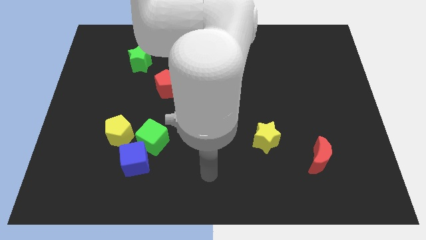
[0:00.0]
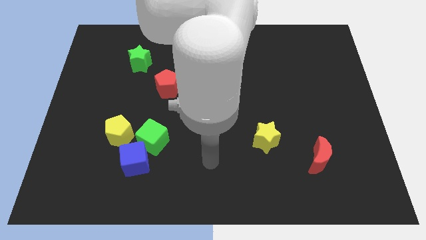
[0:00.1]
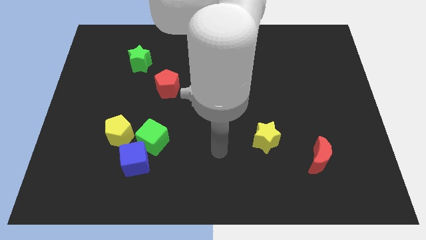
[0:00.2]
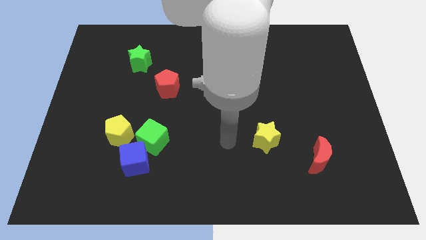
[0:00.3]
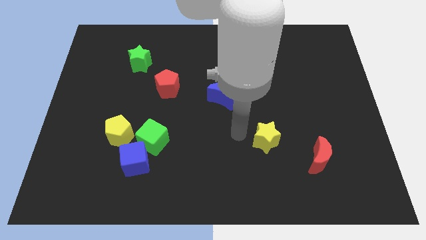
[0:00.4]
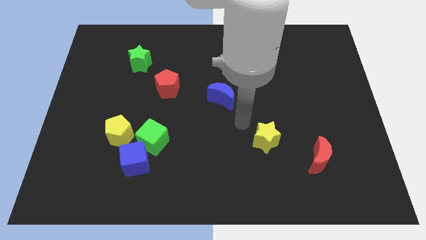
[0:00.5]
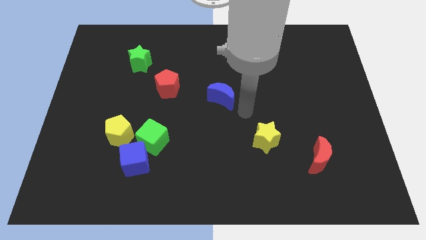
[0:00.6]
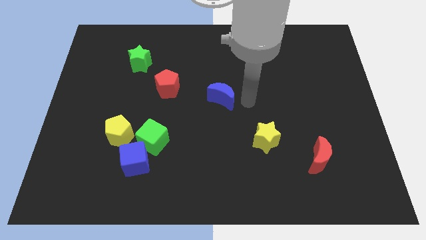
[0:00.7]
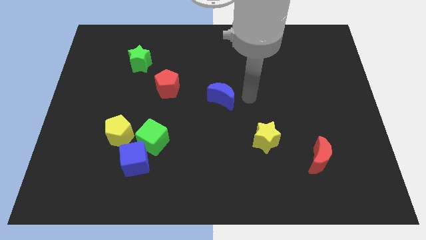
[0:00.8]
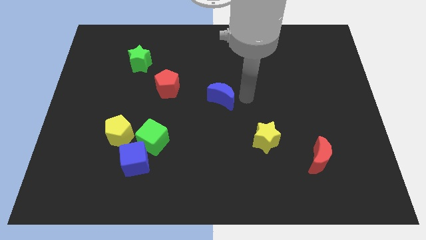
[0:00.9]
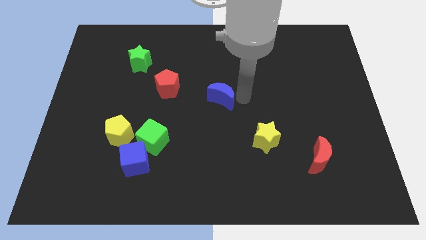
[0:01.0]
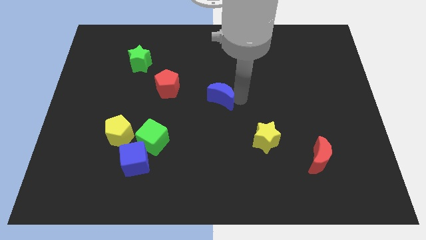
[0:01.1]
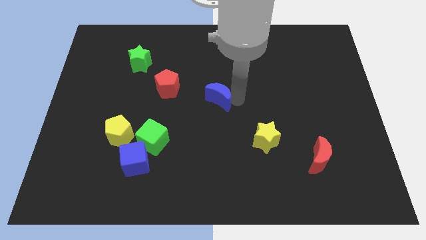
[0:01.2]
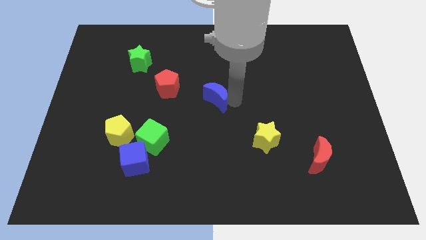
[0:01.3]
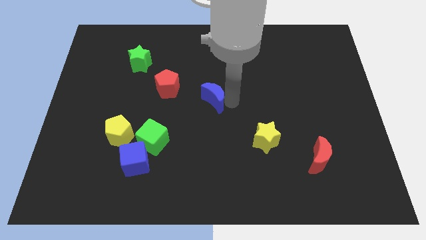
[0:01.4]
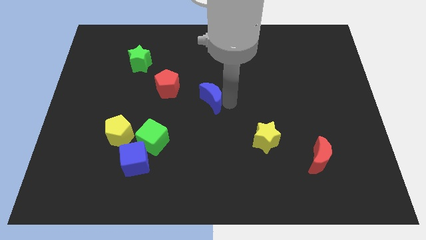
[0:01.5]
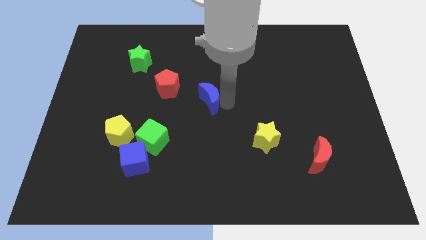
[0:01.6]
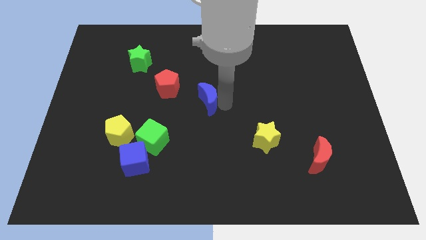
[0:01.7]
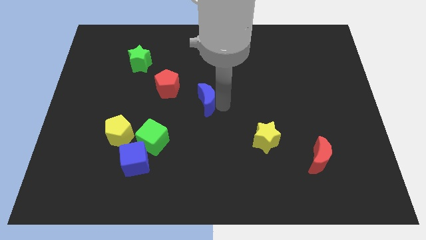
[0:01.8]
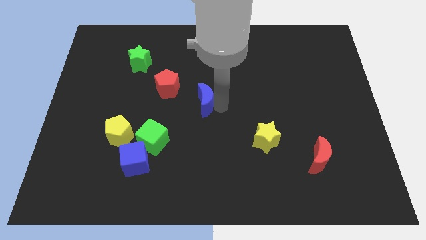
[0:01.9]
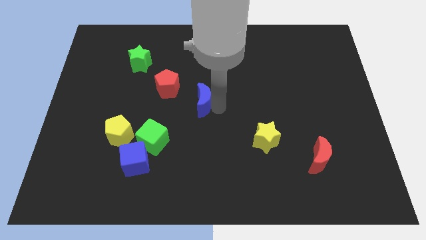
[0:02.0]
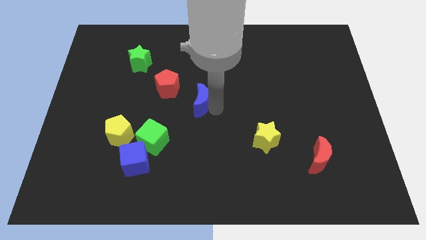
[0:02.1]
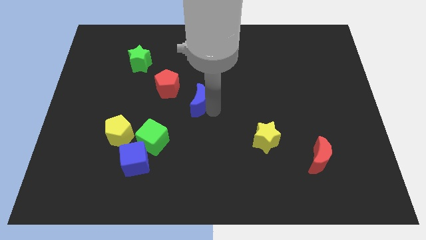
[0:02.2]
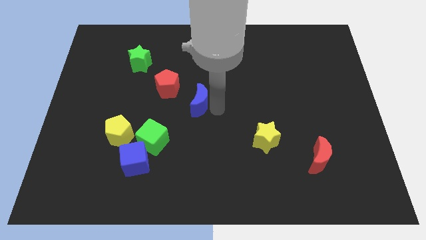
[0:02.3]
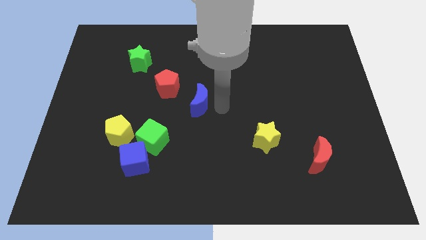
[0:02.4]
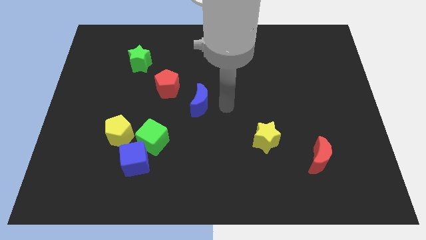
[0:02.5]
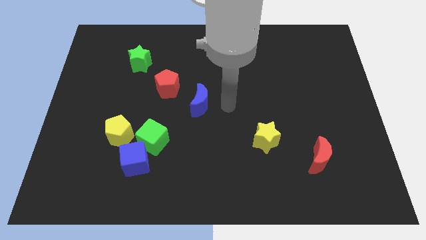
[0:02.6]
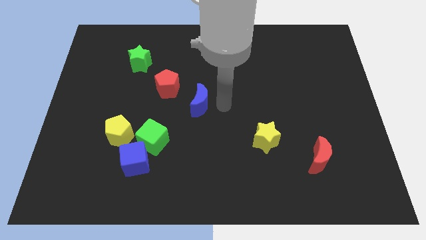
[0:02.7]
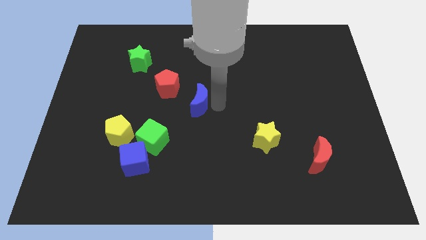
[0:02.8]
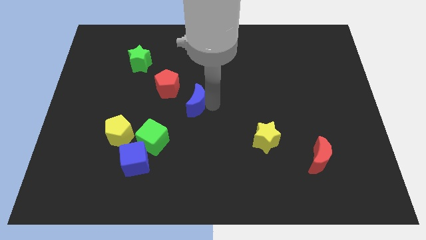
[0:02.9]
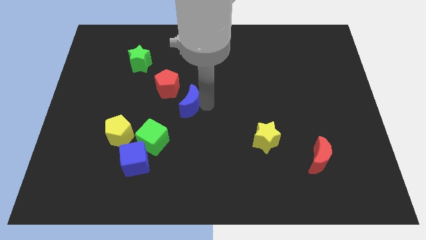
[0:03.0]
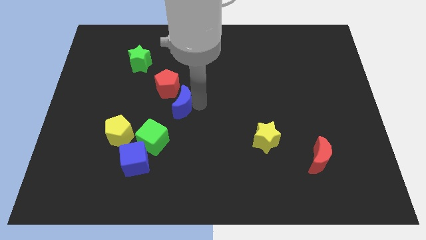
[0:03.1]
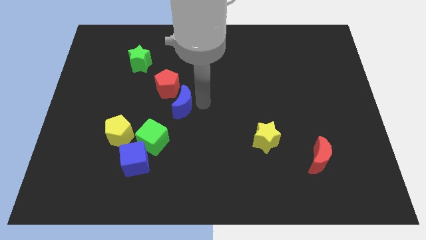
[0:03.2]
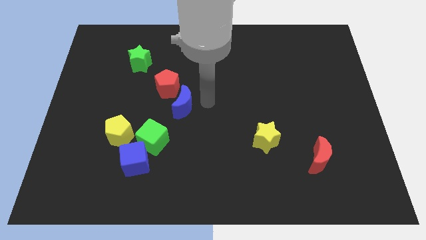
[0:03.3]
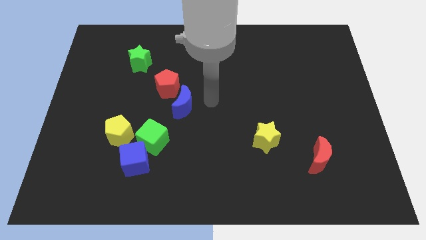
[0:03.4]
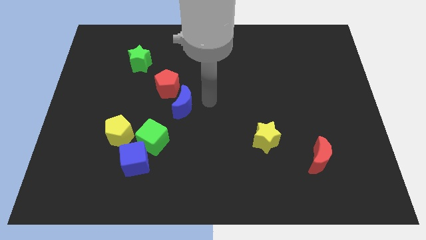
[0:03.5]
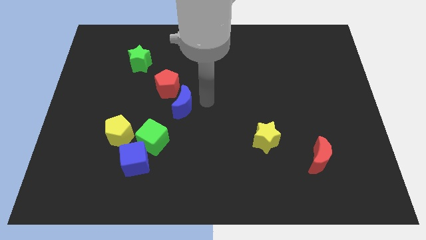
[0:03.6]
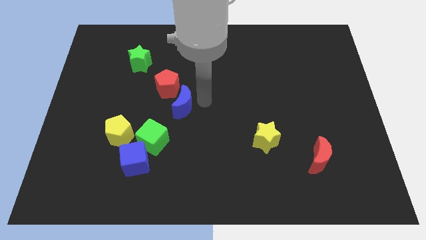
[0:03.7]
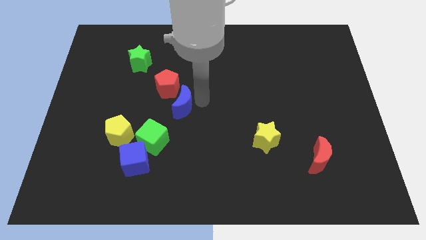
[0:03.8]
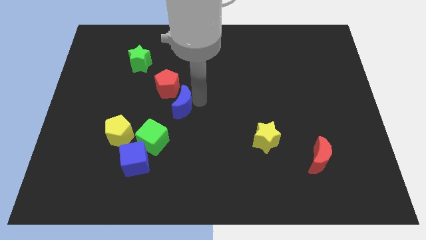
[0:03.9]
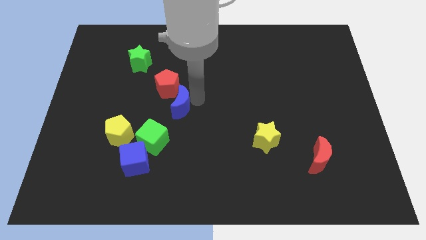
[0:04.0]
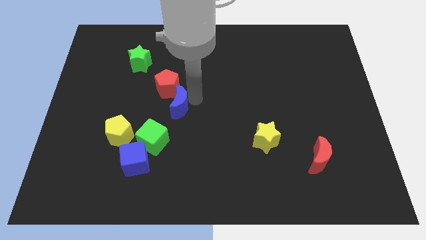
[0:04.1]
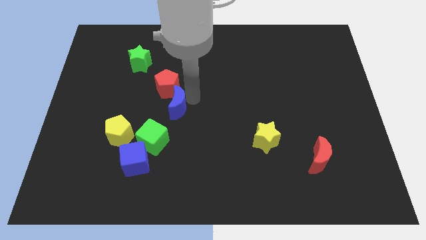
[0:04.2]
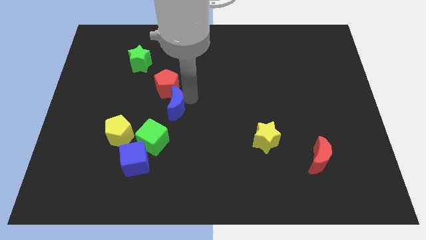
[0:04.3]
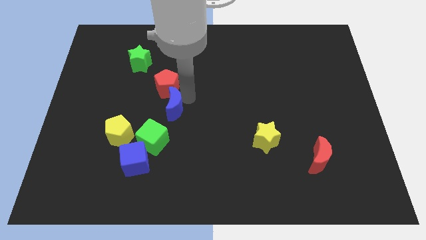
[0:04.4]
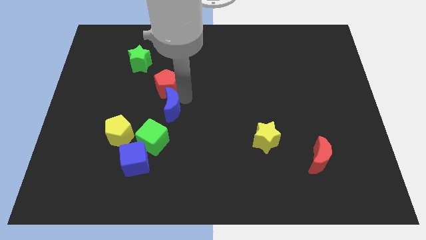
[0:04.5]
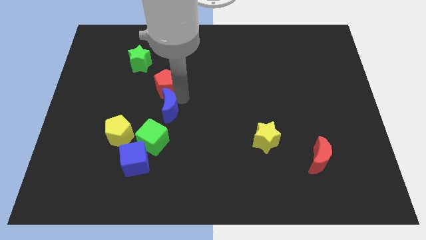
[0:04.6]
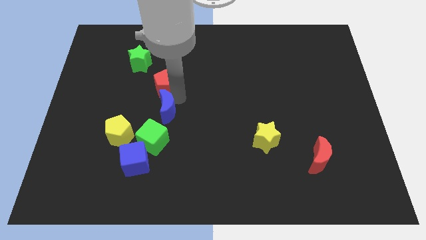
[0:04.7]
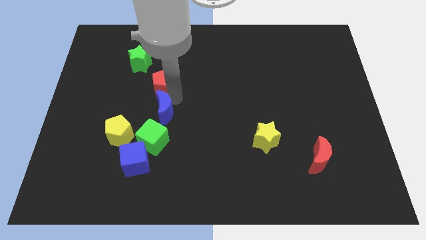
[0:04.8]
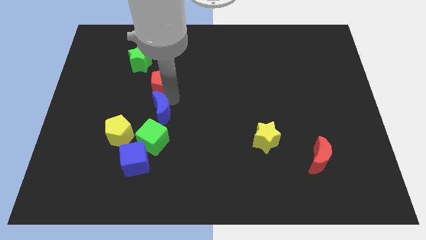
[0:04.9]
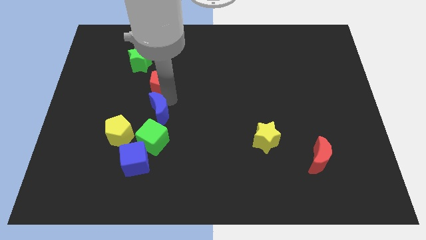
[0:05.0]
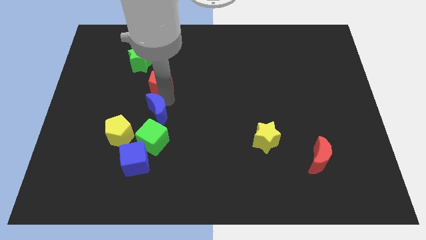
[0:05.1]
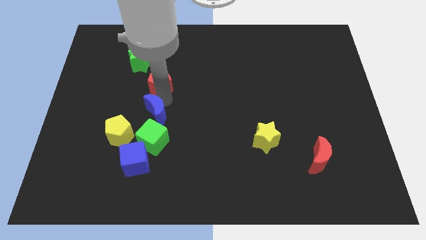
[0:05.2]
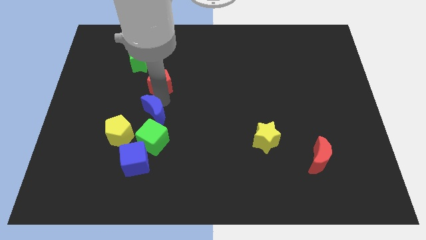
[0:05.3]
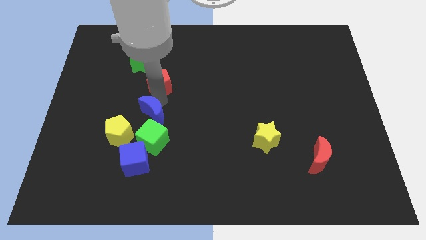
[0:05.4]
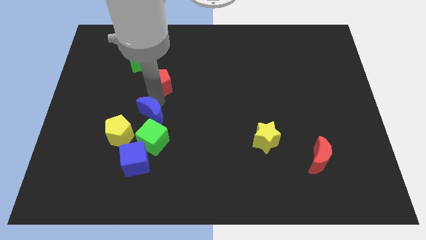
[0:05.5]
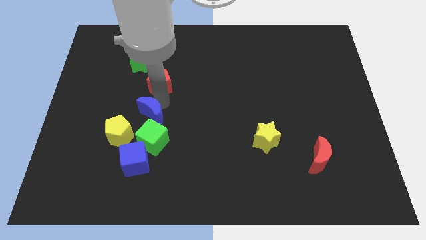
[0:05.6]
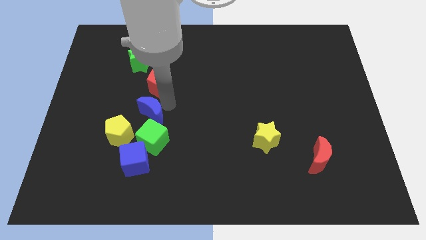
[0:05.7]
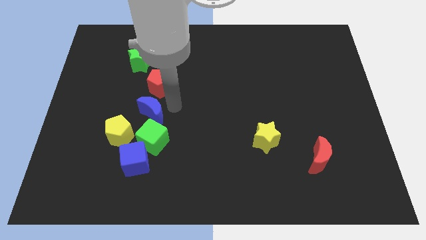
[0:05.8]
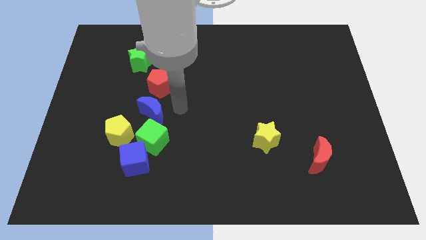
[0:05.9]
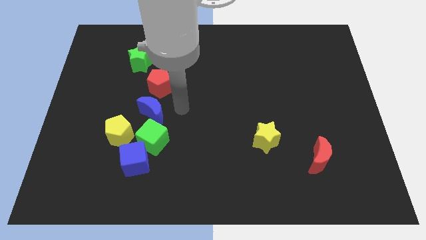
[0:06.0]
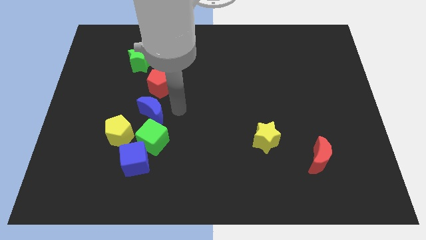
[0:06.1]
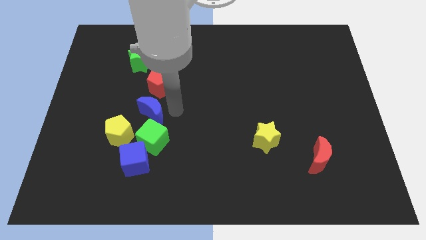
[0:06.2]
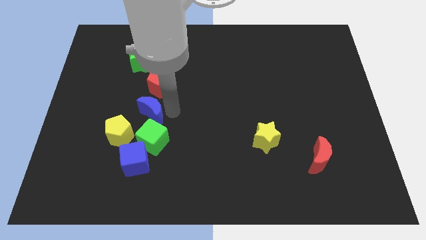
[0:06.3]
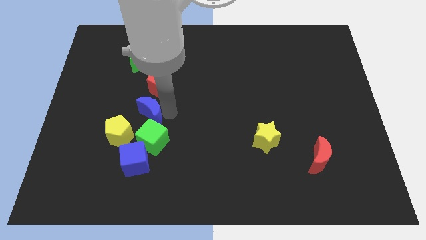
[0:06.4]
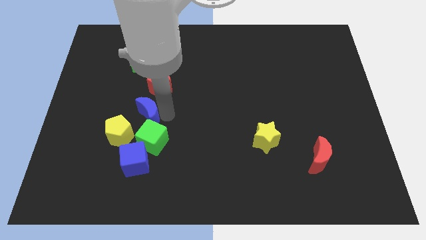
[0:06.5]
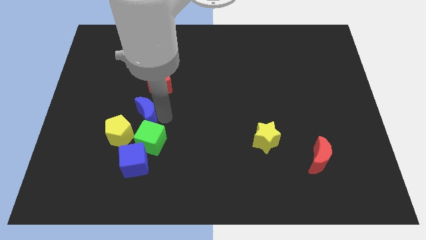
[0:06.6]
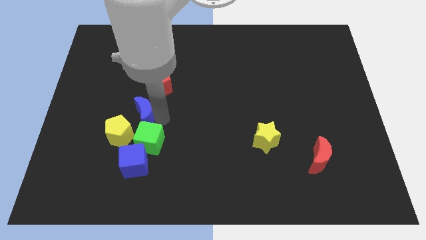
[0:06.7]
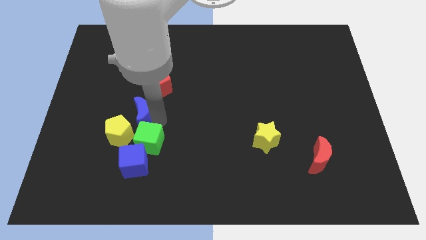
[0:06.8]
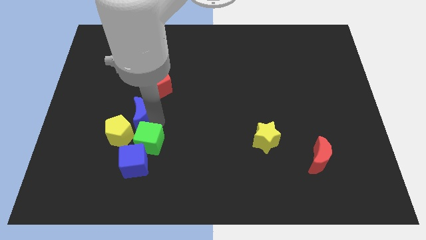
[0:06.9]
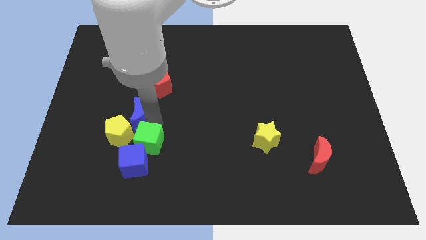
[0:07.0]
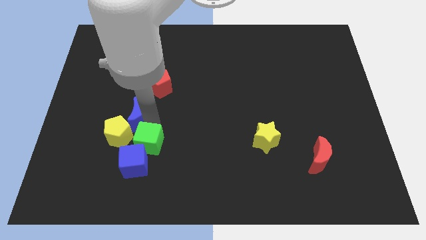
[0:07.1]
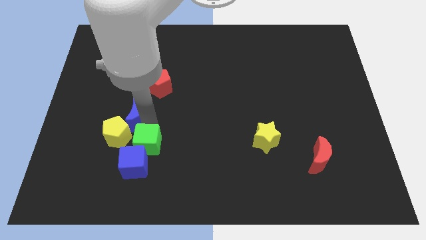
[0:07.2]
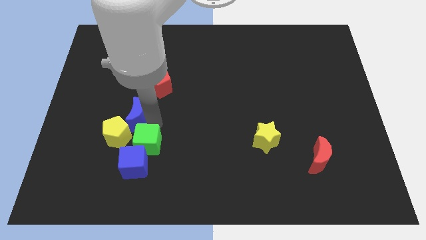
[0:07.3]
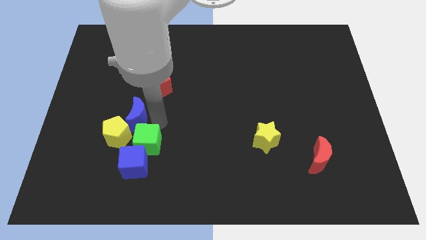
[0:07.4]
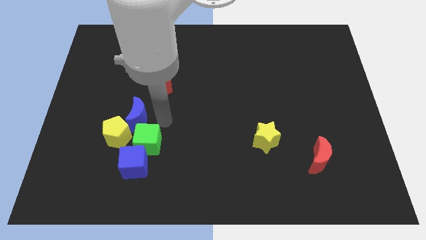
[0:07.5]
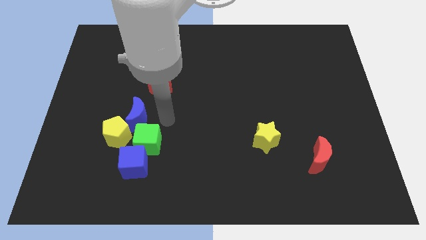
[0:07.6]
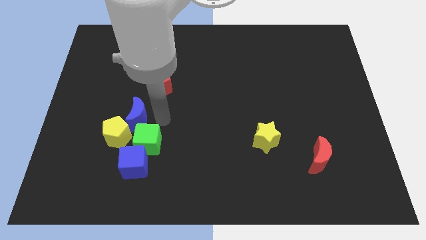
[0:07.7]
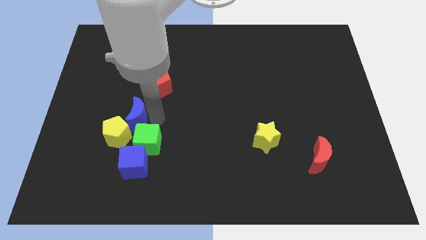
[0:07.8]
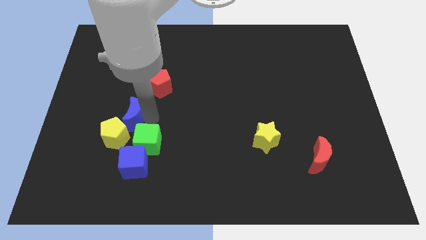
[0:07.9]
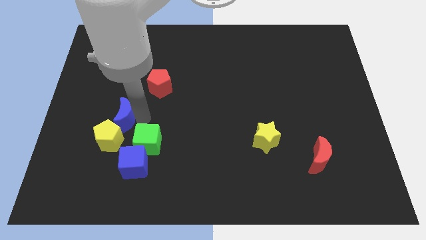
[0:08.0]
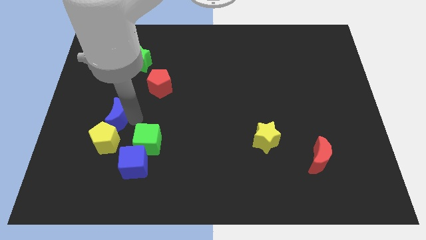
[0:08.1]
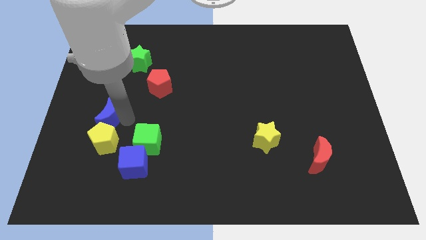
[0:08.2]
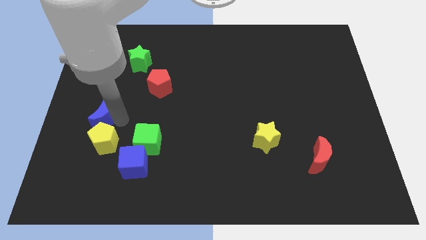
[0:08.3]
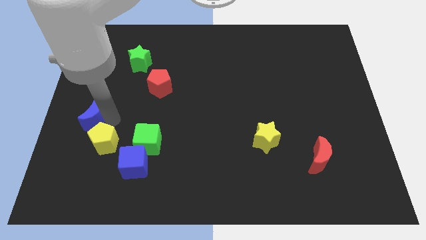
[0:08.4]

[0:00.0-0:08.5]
move the blue moon to the left side
